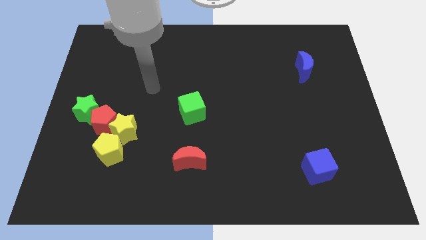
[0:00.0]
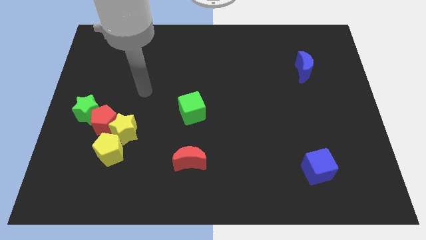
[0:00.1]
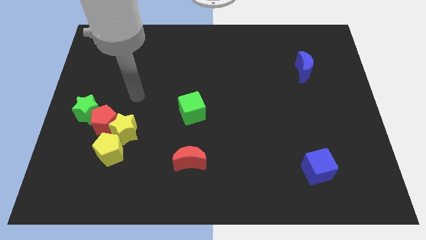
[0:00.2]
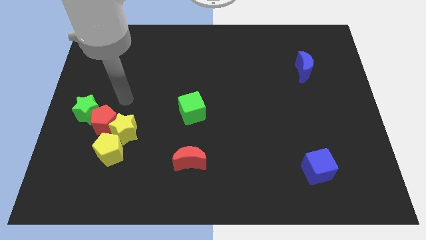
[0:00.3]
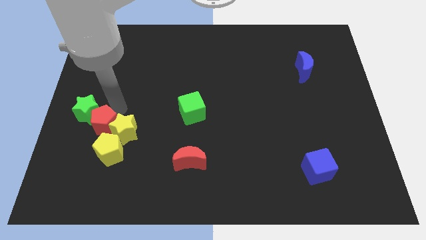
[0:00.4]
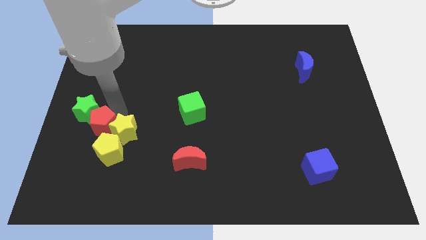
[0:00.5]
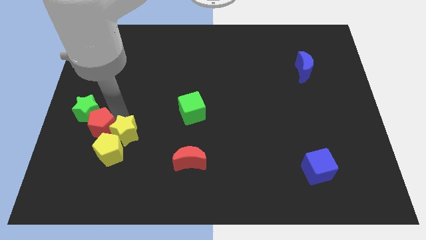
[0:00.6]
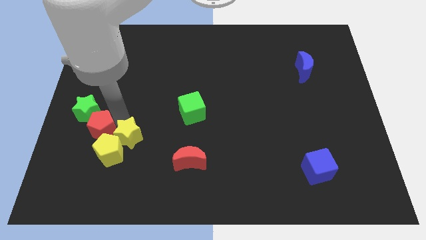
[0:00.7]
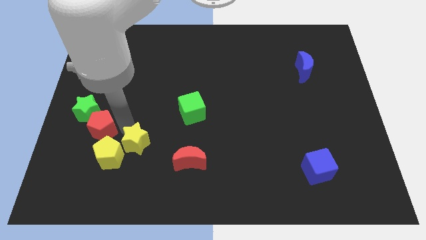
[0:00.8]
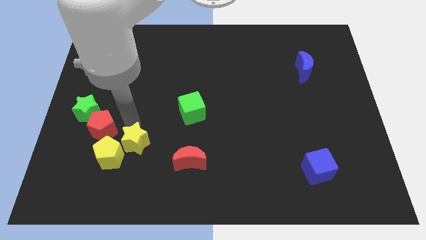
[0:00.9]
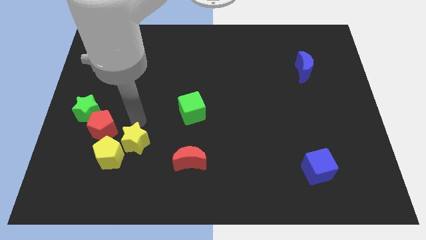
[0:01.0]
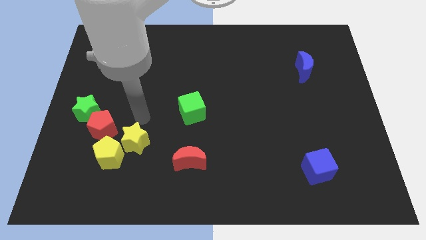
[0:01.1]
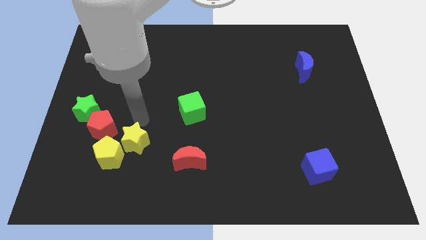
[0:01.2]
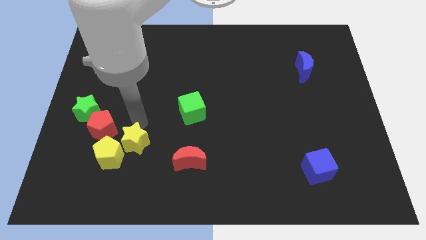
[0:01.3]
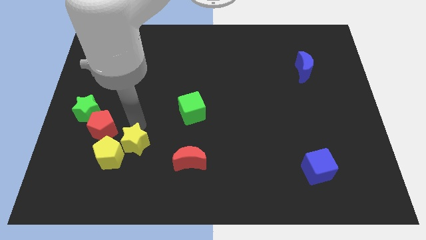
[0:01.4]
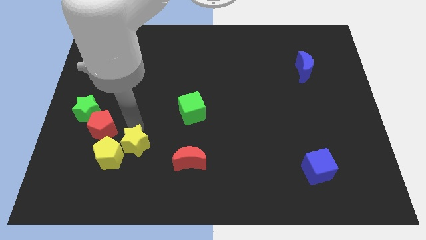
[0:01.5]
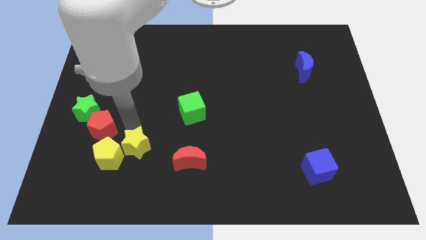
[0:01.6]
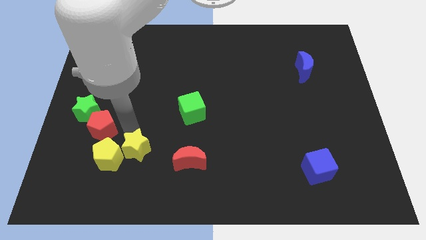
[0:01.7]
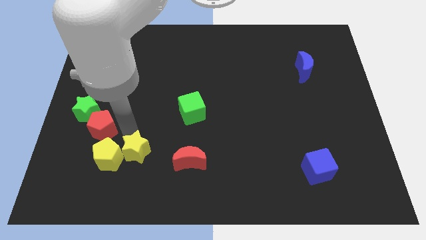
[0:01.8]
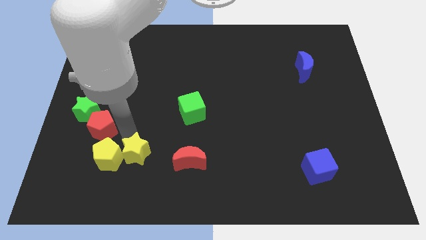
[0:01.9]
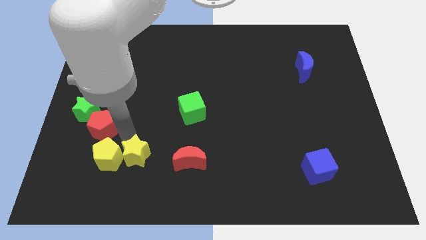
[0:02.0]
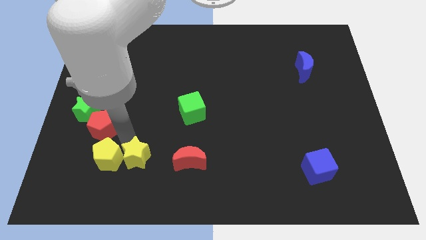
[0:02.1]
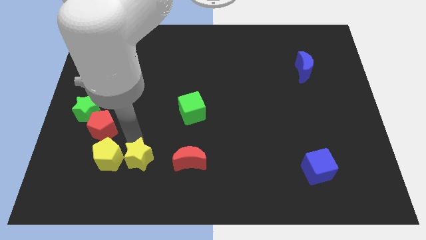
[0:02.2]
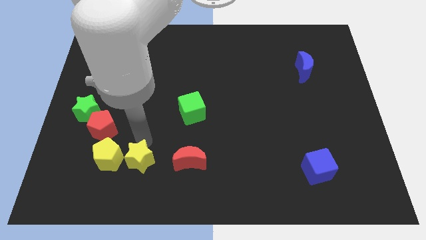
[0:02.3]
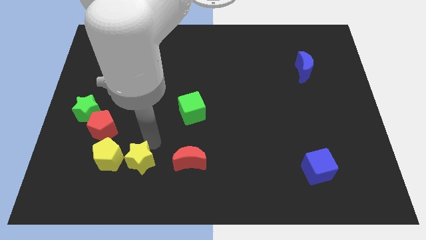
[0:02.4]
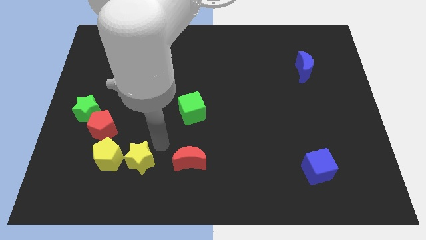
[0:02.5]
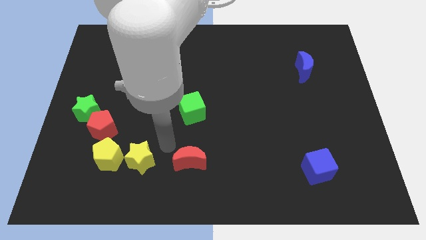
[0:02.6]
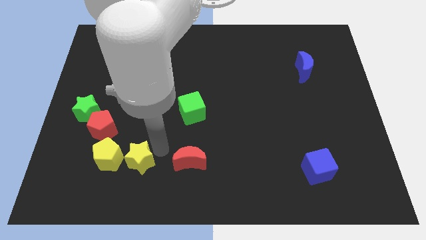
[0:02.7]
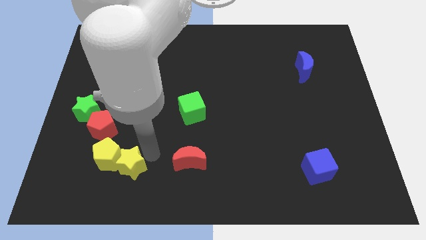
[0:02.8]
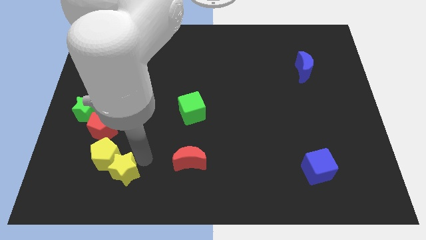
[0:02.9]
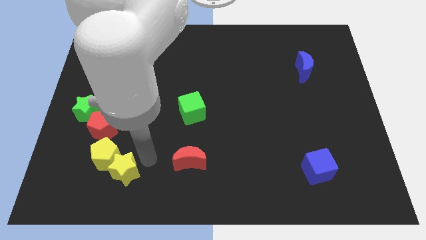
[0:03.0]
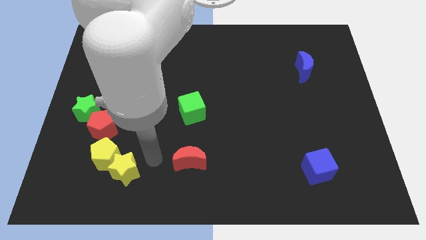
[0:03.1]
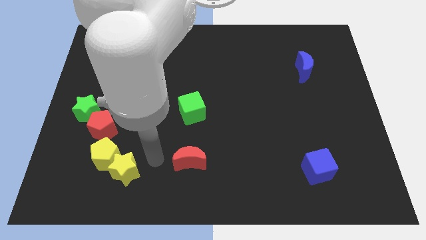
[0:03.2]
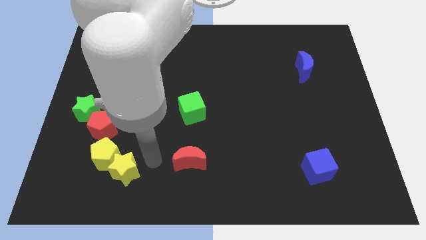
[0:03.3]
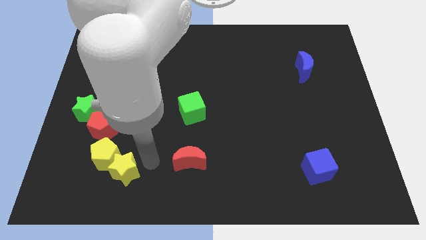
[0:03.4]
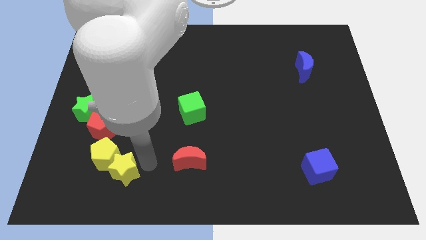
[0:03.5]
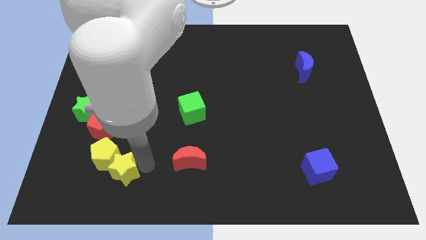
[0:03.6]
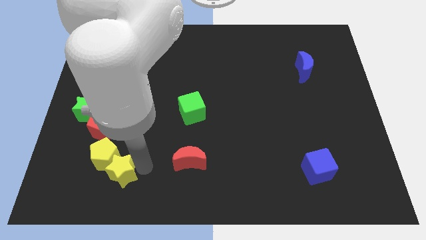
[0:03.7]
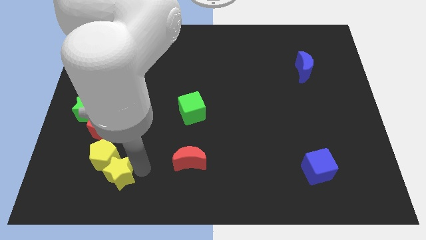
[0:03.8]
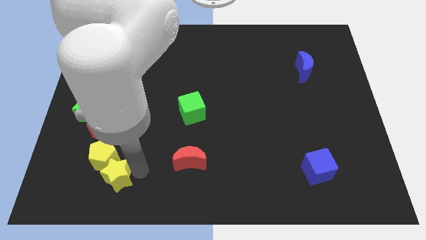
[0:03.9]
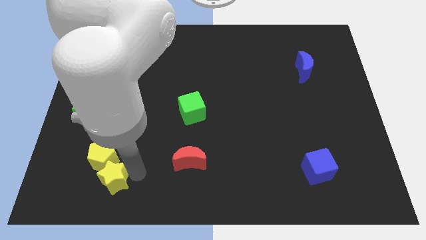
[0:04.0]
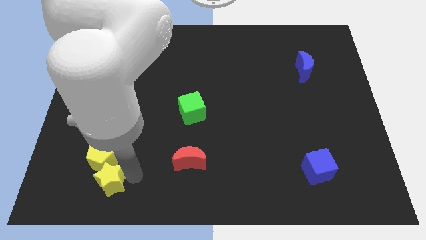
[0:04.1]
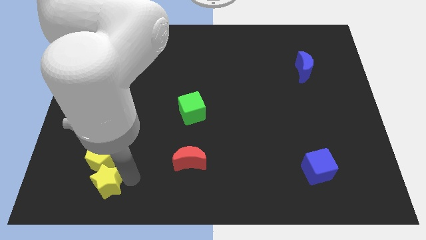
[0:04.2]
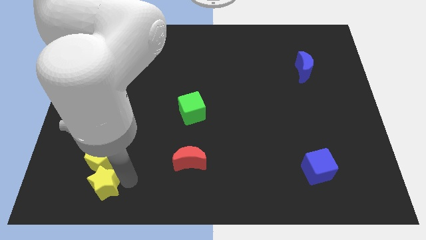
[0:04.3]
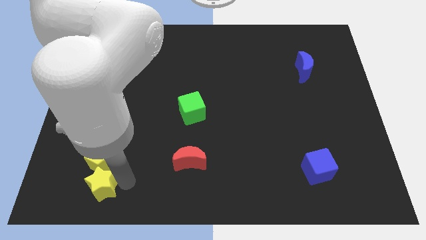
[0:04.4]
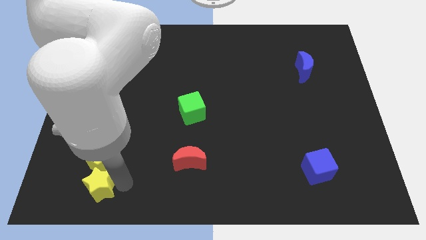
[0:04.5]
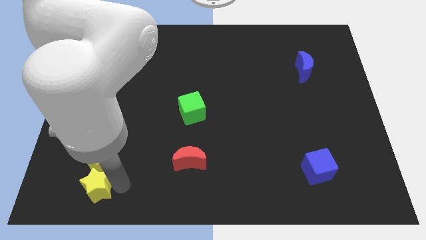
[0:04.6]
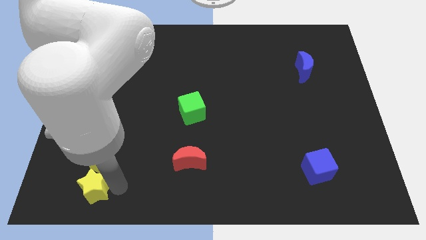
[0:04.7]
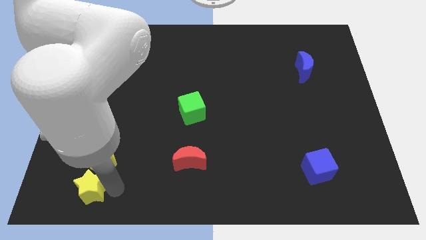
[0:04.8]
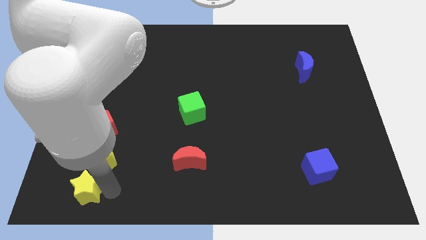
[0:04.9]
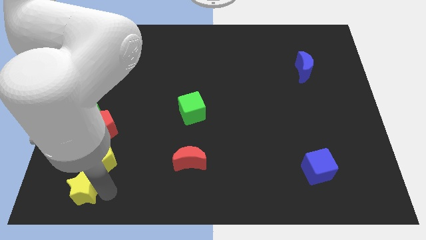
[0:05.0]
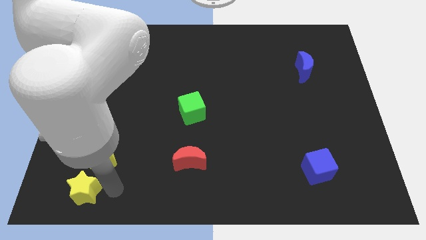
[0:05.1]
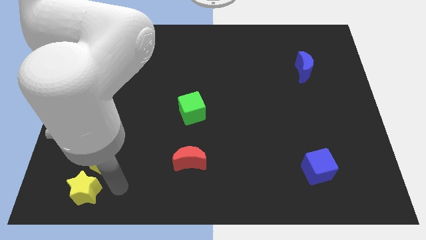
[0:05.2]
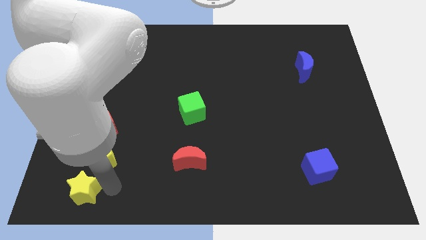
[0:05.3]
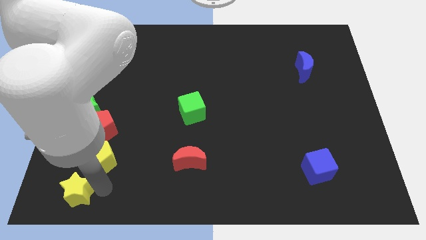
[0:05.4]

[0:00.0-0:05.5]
slide the yellow star to the bottom left
